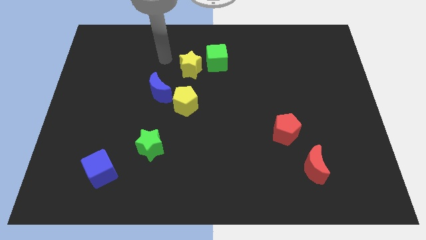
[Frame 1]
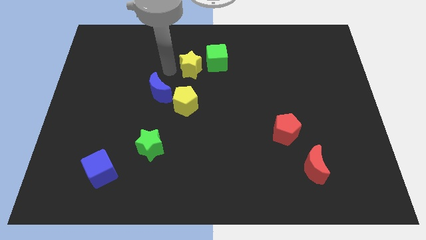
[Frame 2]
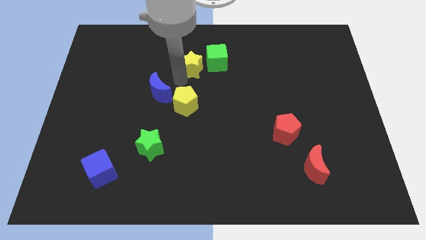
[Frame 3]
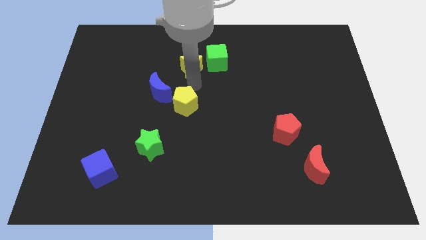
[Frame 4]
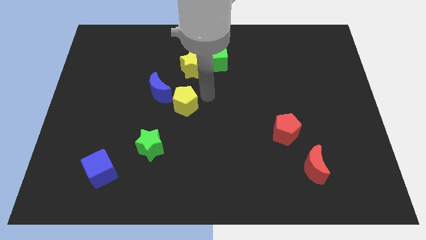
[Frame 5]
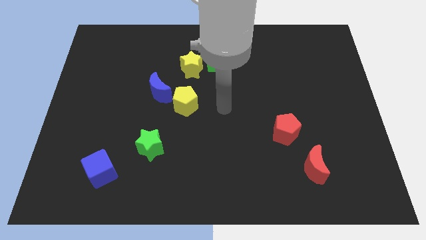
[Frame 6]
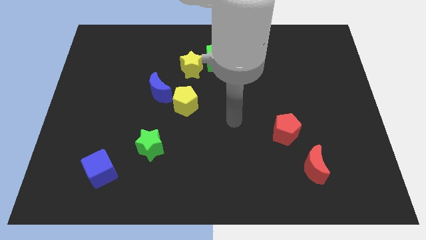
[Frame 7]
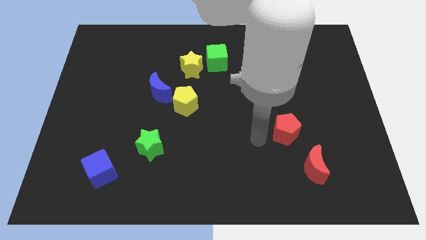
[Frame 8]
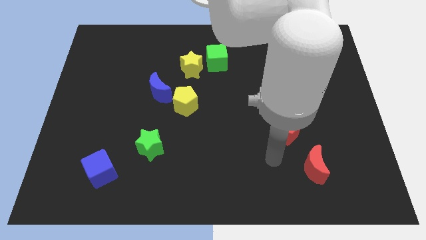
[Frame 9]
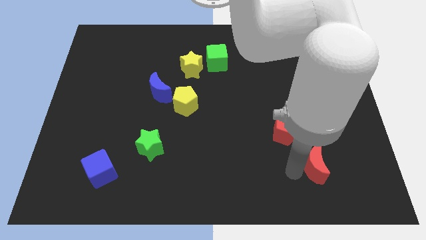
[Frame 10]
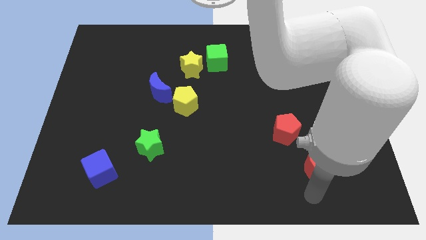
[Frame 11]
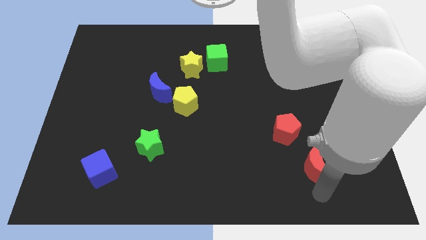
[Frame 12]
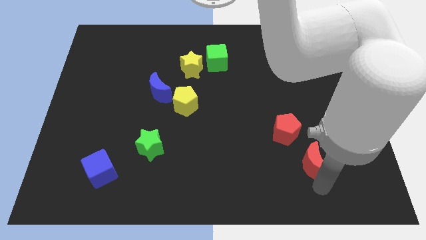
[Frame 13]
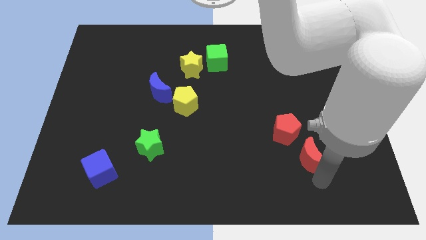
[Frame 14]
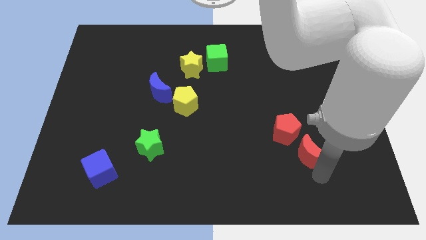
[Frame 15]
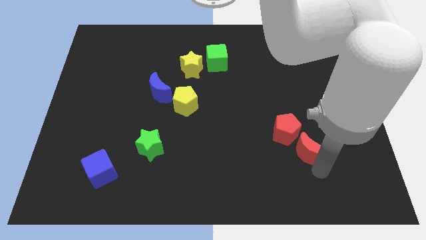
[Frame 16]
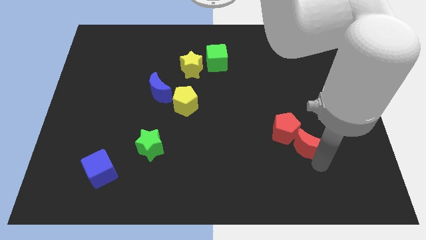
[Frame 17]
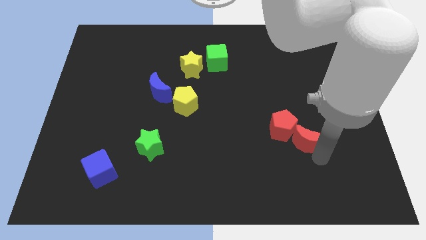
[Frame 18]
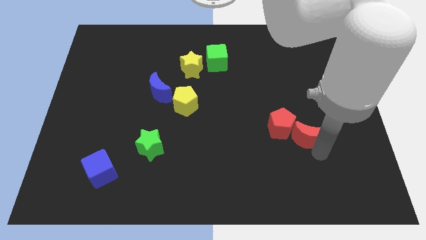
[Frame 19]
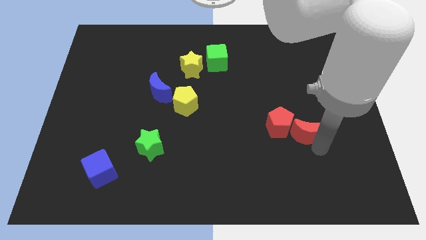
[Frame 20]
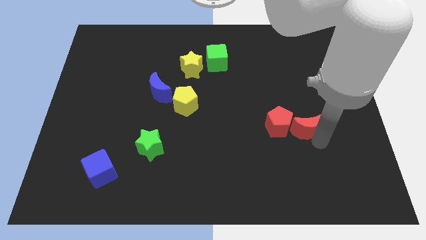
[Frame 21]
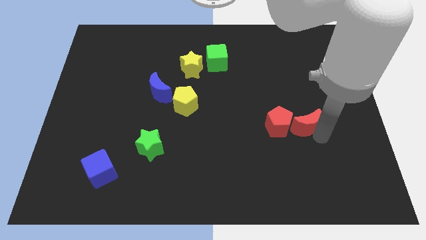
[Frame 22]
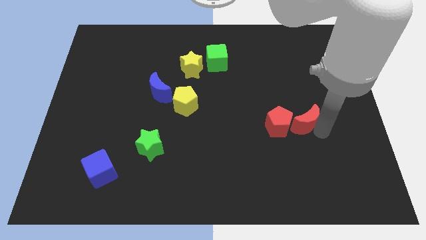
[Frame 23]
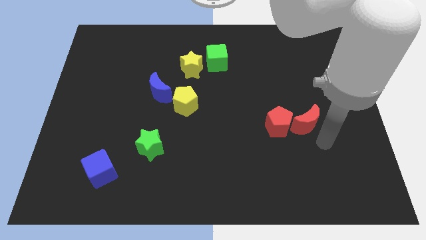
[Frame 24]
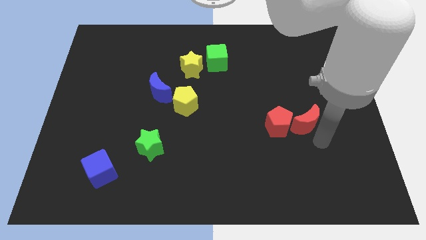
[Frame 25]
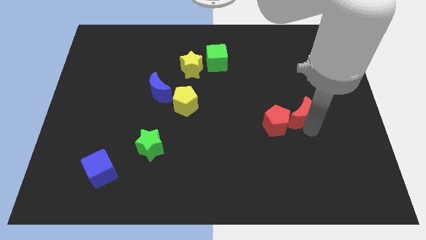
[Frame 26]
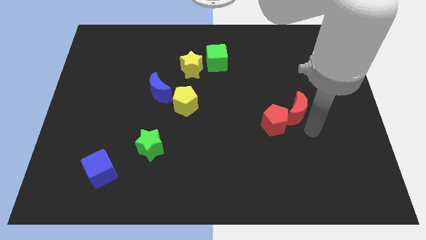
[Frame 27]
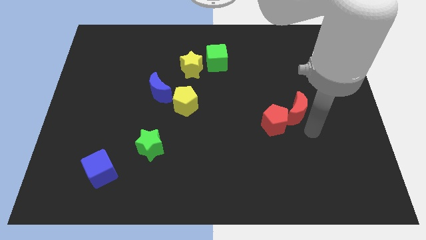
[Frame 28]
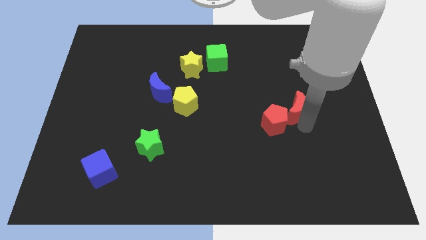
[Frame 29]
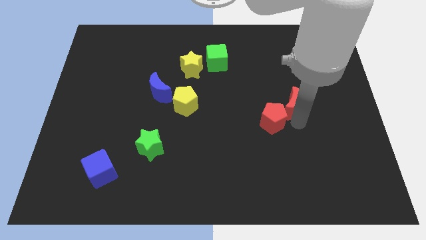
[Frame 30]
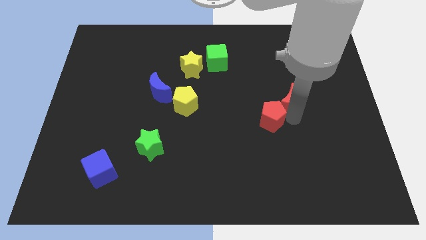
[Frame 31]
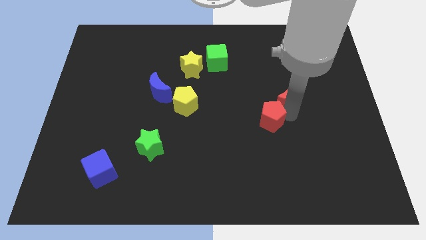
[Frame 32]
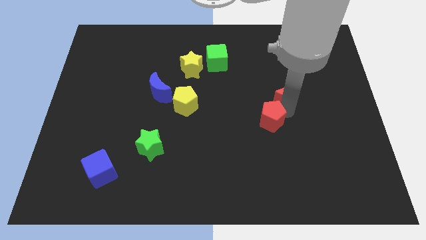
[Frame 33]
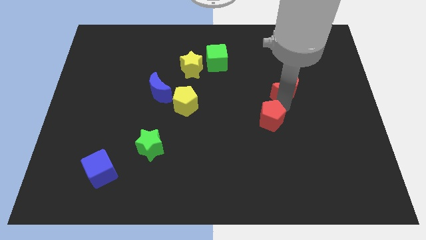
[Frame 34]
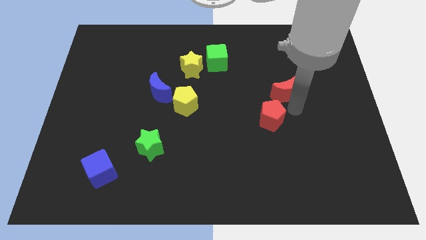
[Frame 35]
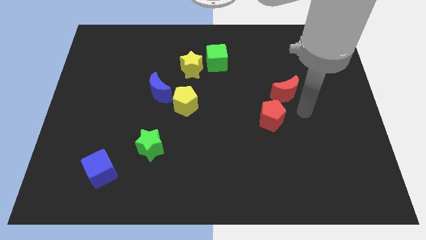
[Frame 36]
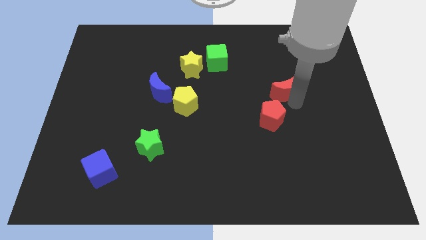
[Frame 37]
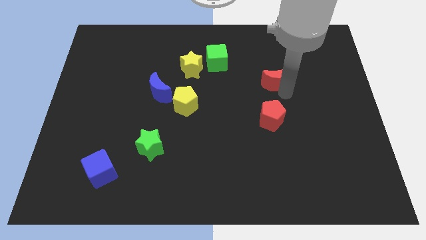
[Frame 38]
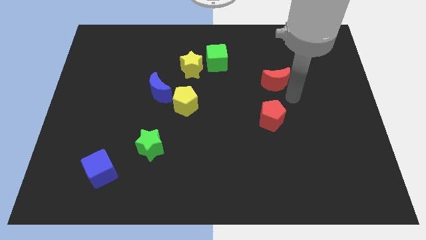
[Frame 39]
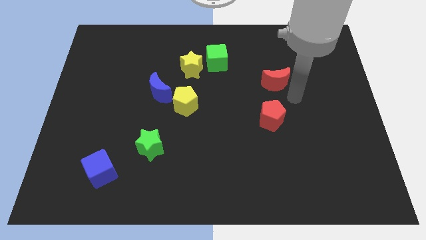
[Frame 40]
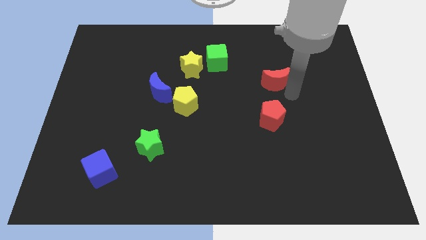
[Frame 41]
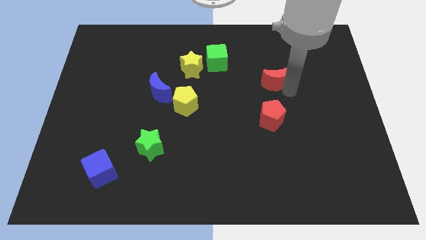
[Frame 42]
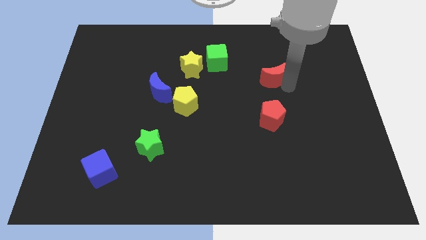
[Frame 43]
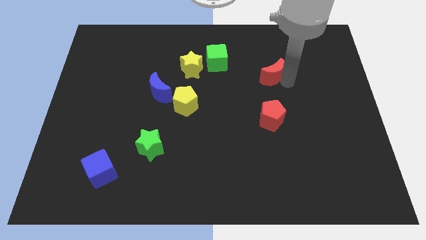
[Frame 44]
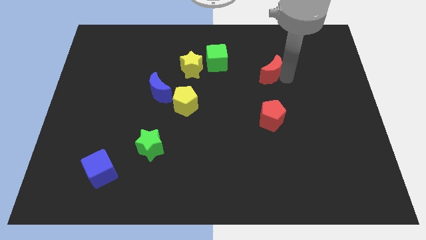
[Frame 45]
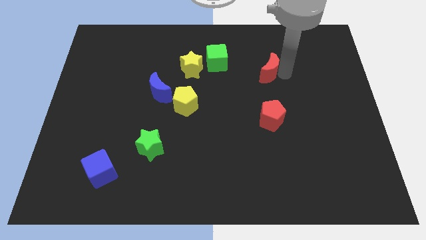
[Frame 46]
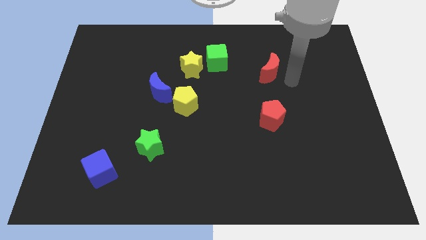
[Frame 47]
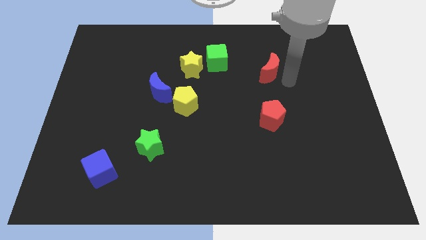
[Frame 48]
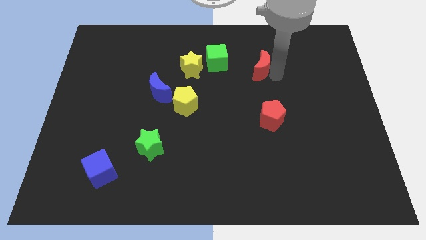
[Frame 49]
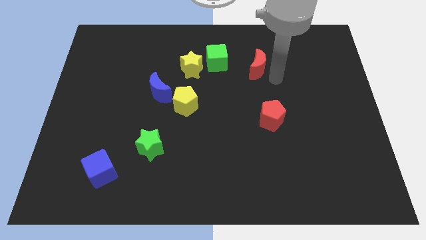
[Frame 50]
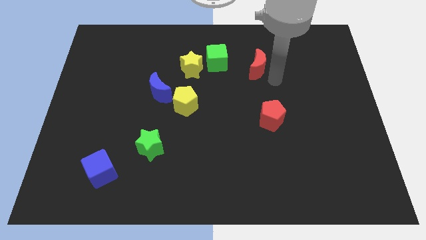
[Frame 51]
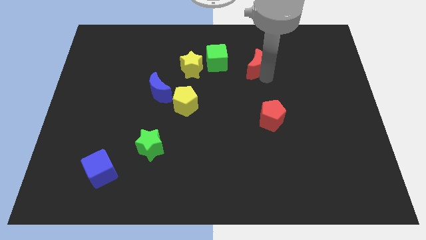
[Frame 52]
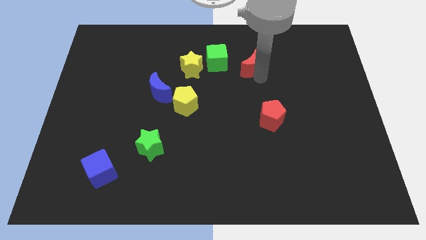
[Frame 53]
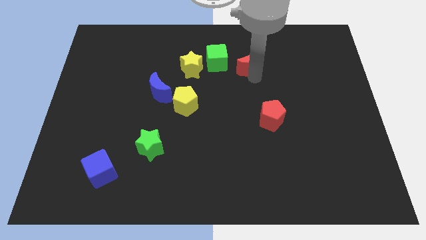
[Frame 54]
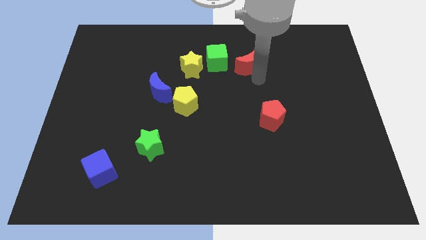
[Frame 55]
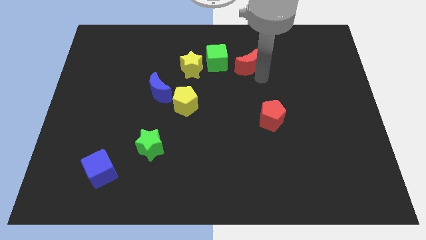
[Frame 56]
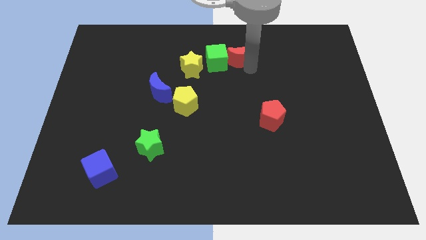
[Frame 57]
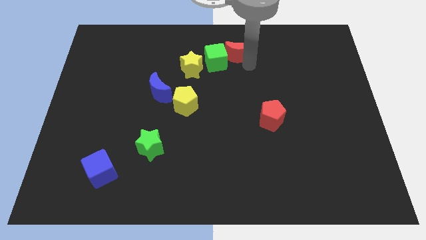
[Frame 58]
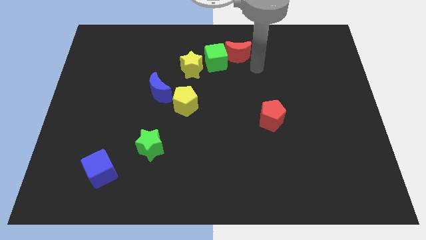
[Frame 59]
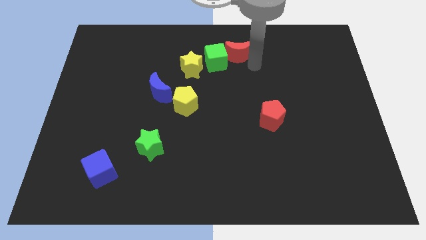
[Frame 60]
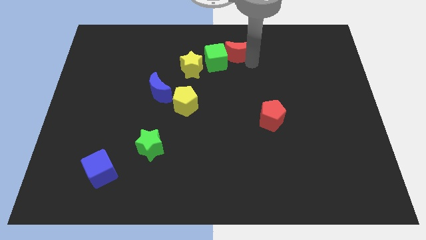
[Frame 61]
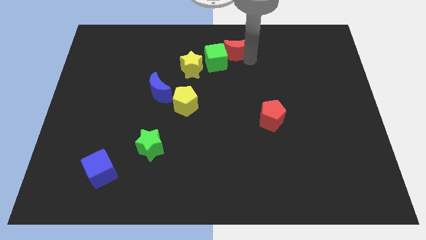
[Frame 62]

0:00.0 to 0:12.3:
move the red moon to the towards your base
